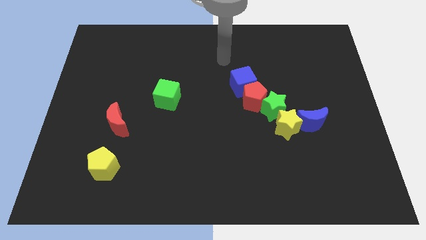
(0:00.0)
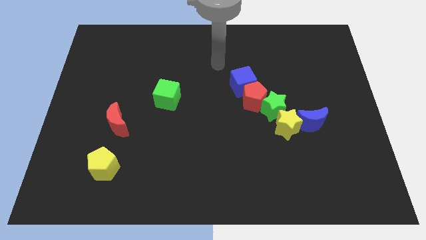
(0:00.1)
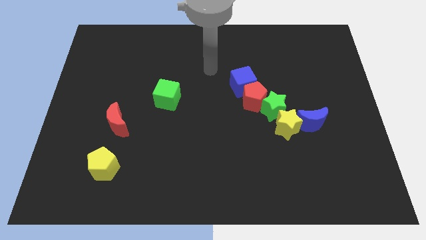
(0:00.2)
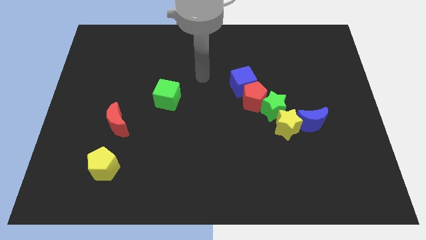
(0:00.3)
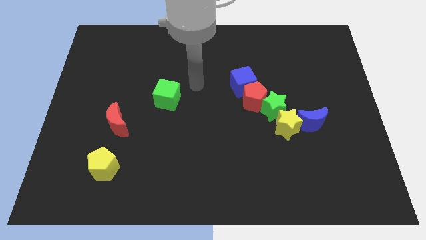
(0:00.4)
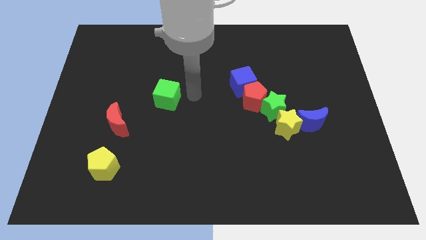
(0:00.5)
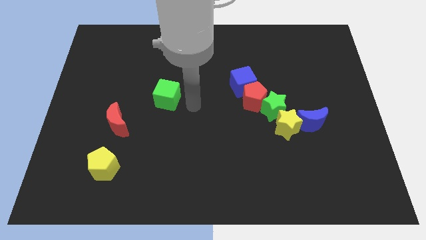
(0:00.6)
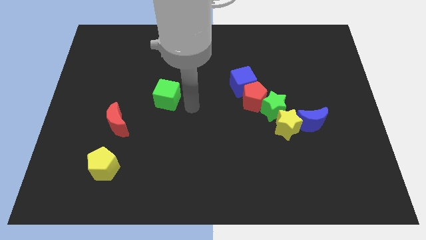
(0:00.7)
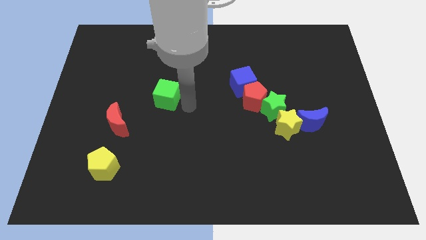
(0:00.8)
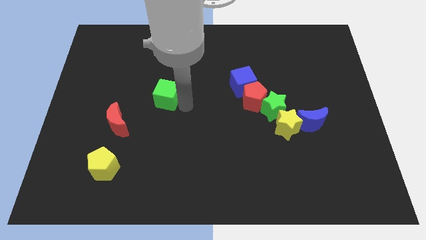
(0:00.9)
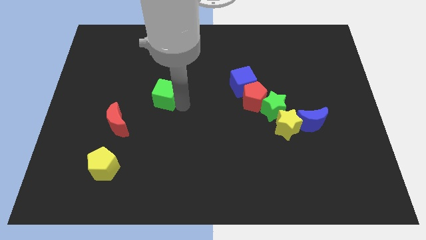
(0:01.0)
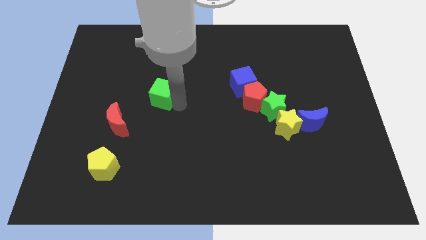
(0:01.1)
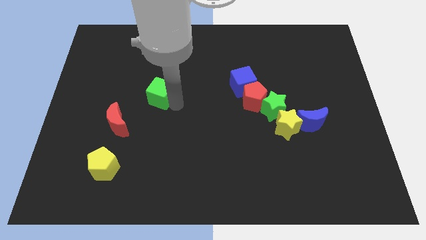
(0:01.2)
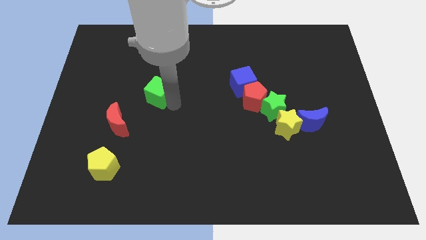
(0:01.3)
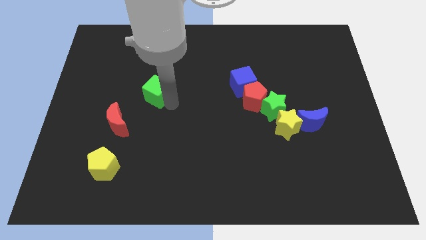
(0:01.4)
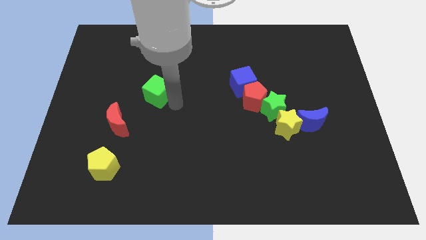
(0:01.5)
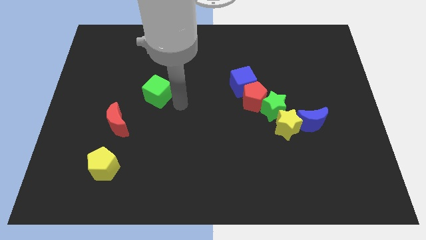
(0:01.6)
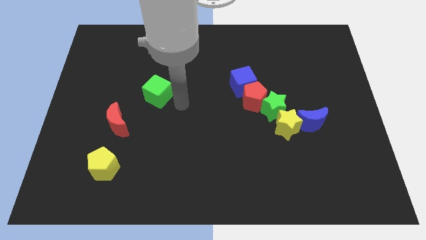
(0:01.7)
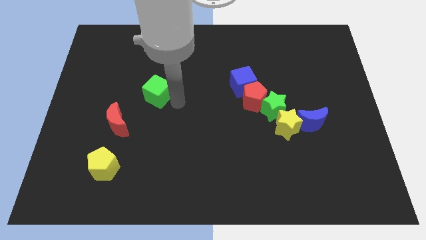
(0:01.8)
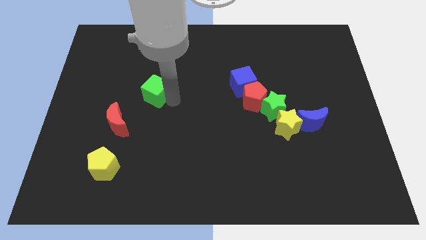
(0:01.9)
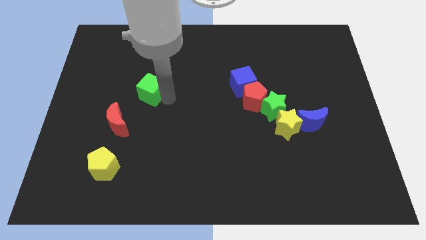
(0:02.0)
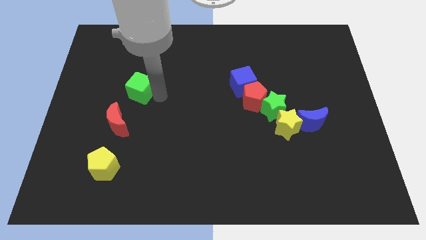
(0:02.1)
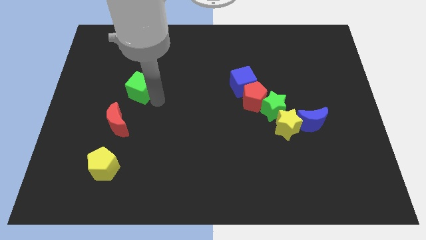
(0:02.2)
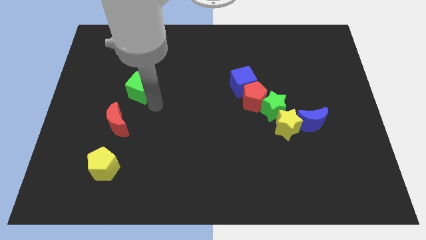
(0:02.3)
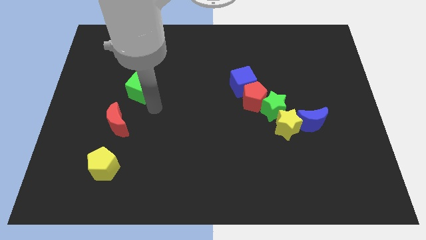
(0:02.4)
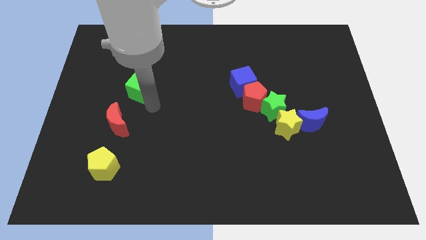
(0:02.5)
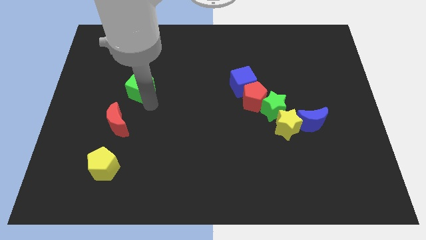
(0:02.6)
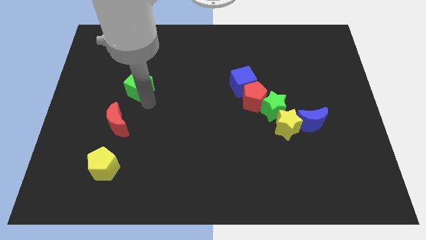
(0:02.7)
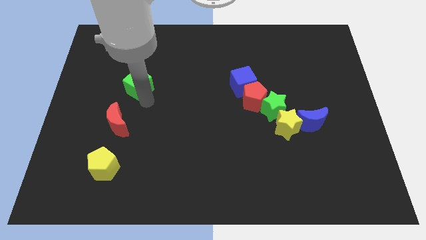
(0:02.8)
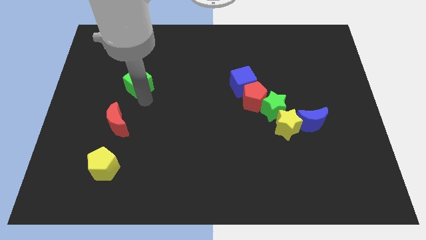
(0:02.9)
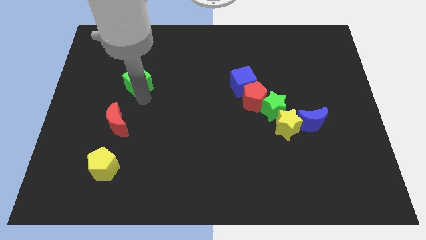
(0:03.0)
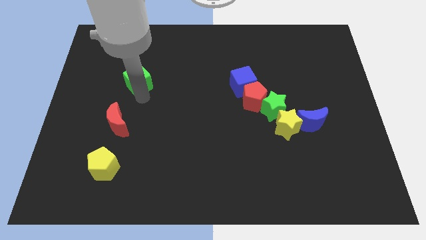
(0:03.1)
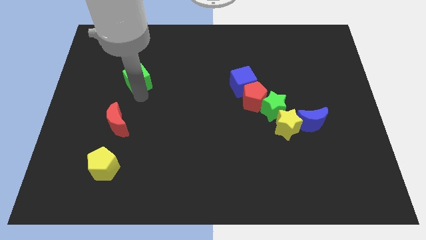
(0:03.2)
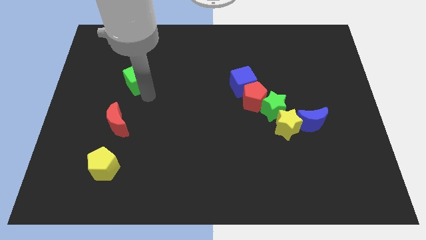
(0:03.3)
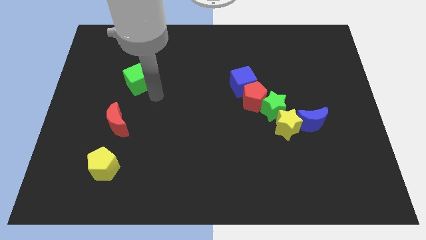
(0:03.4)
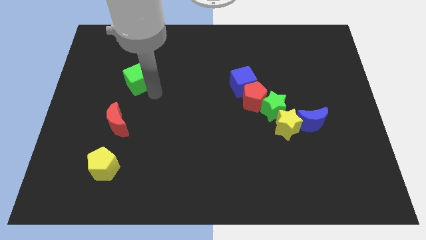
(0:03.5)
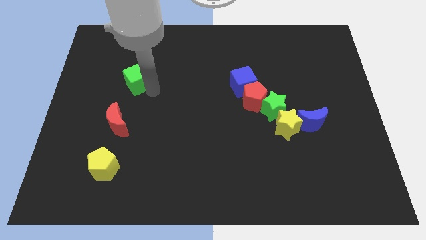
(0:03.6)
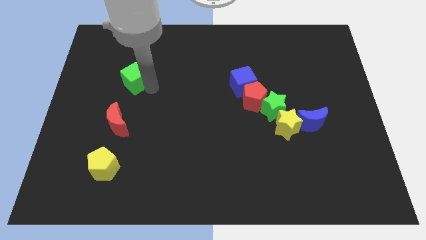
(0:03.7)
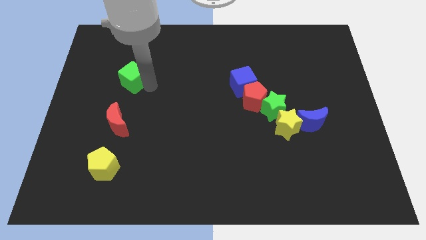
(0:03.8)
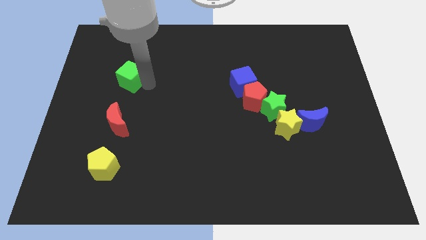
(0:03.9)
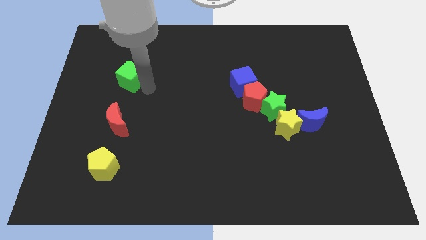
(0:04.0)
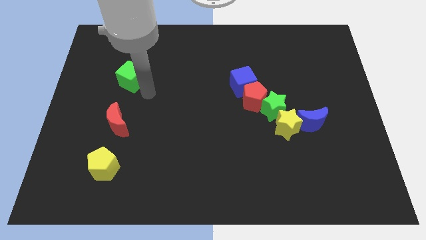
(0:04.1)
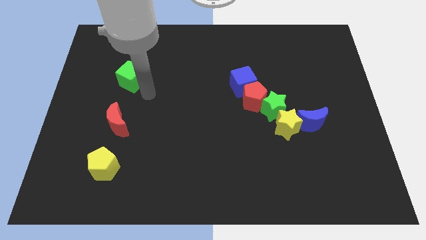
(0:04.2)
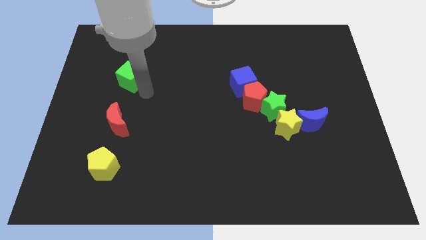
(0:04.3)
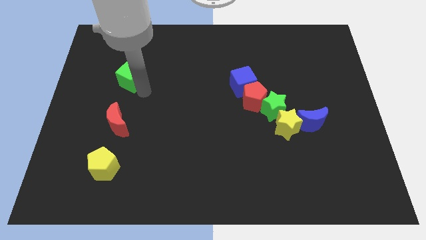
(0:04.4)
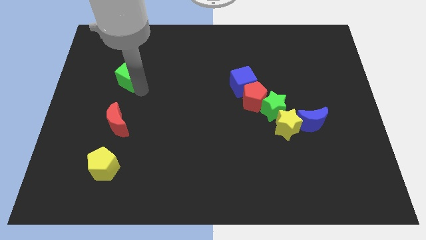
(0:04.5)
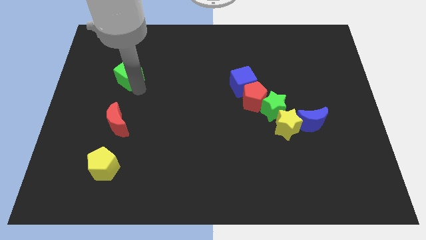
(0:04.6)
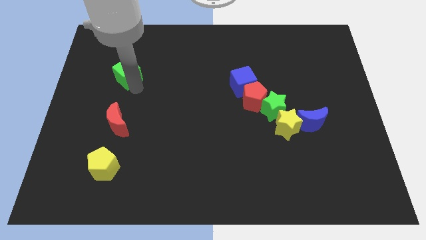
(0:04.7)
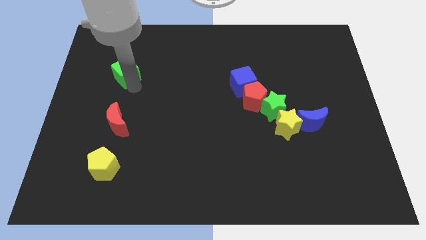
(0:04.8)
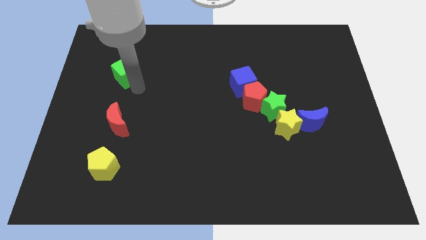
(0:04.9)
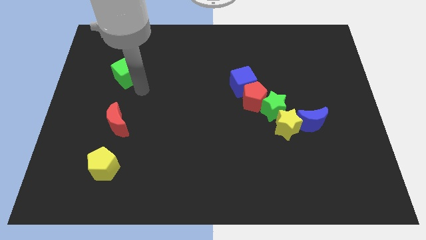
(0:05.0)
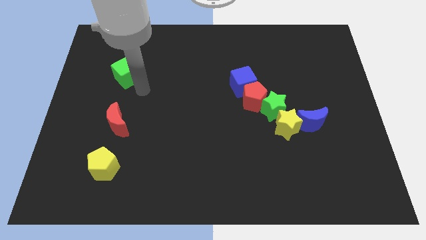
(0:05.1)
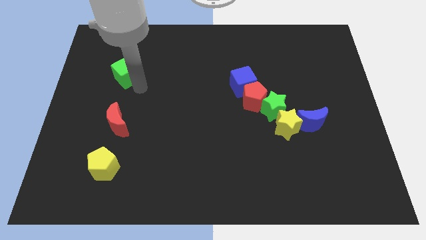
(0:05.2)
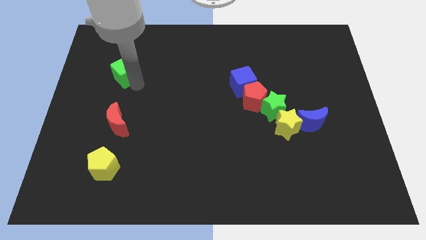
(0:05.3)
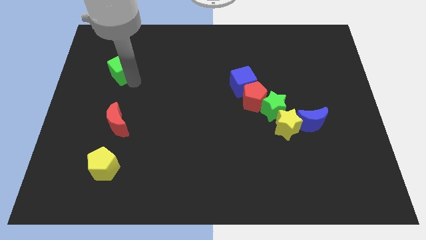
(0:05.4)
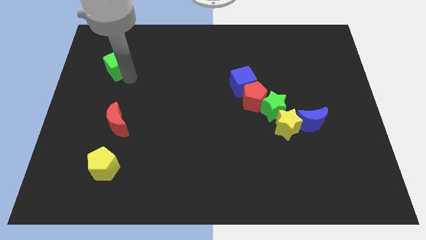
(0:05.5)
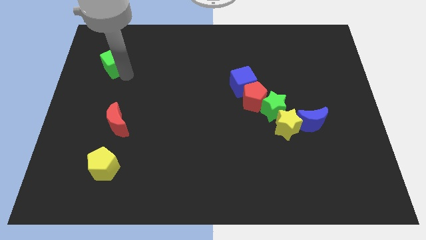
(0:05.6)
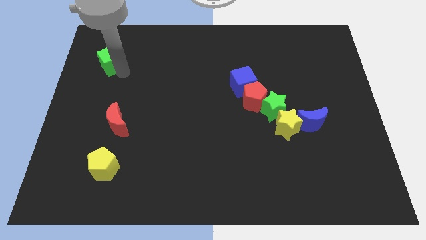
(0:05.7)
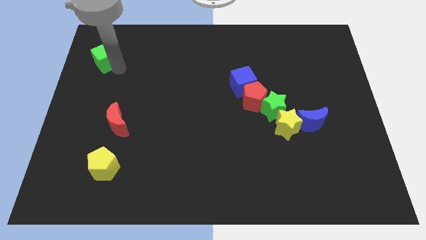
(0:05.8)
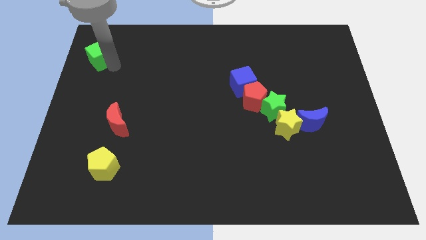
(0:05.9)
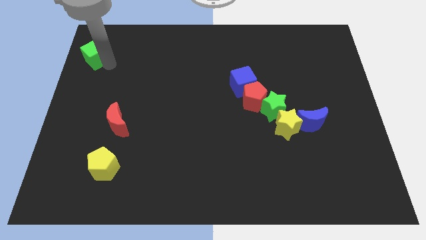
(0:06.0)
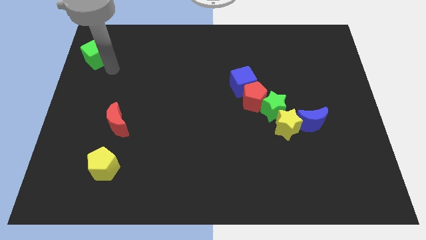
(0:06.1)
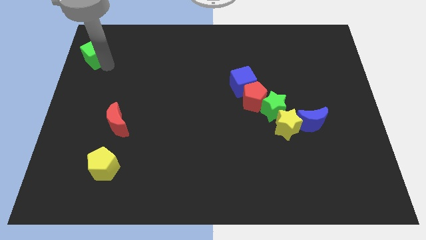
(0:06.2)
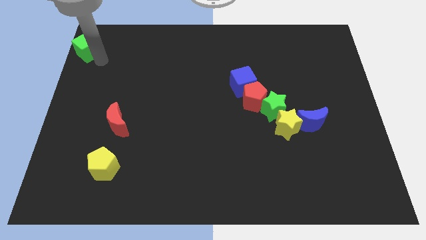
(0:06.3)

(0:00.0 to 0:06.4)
put the green cube to the top left of the board

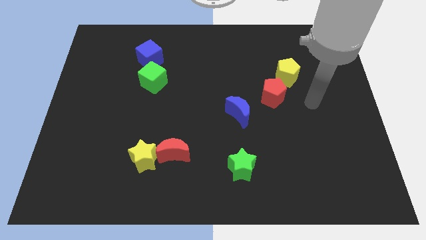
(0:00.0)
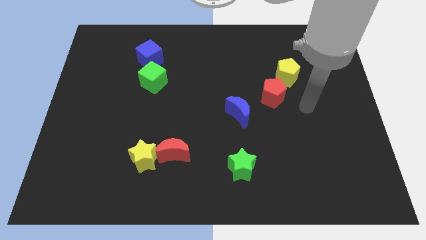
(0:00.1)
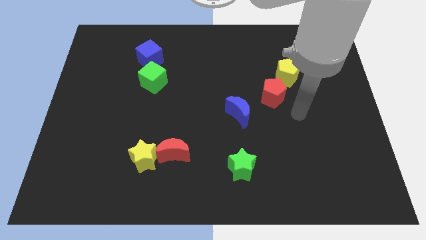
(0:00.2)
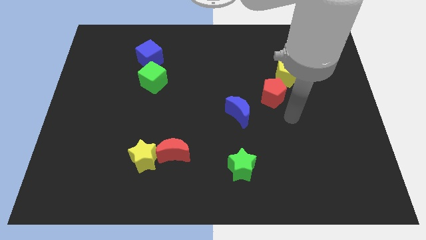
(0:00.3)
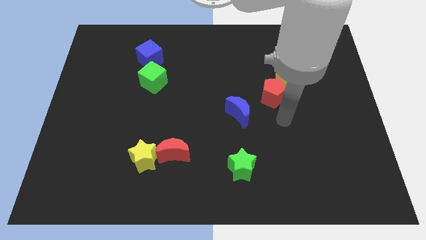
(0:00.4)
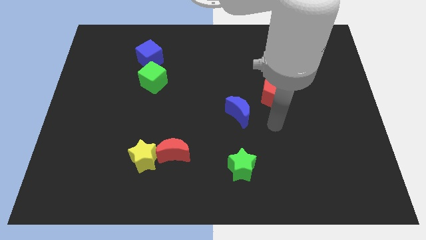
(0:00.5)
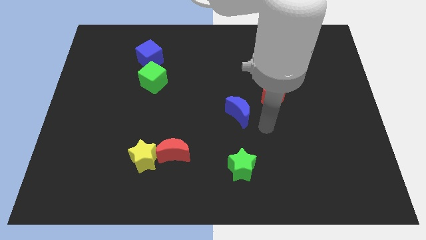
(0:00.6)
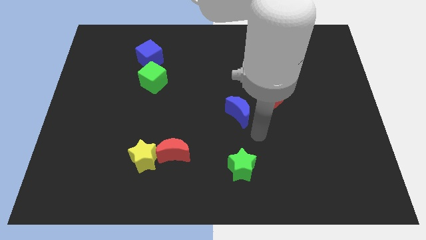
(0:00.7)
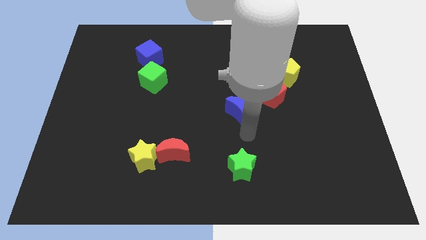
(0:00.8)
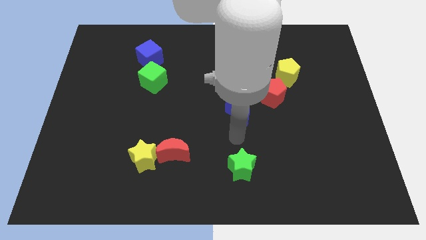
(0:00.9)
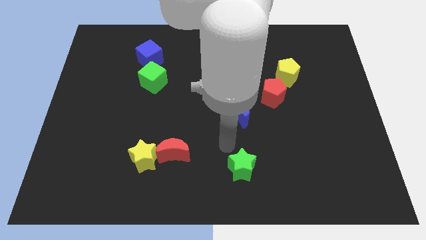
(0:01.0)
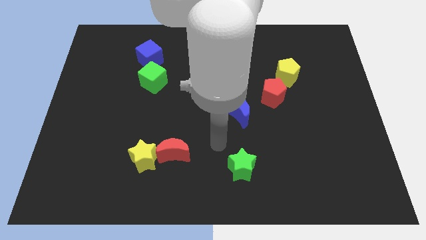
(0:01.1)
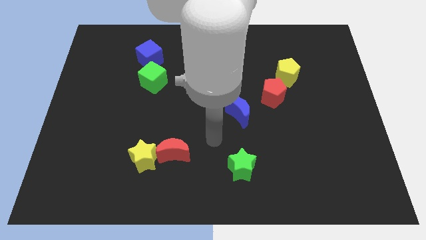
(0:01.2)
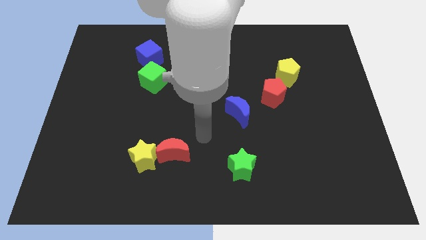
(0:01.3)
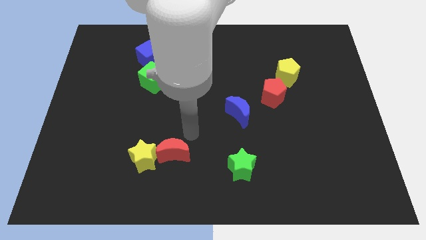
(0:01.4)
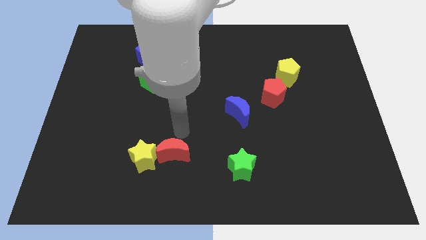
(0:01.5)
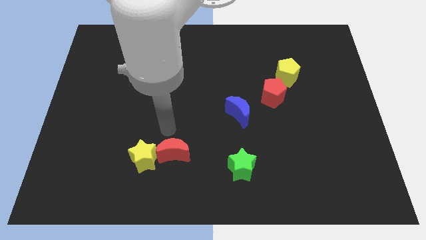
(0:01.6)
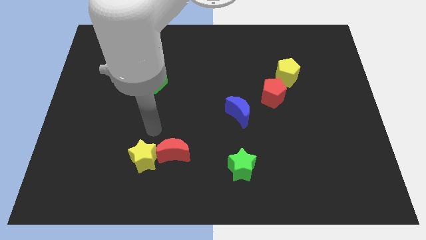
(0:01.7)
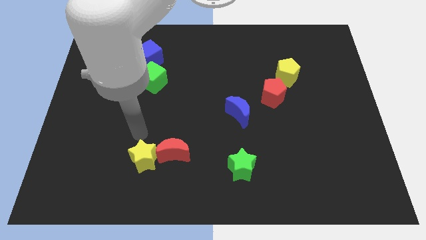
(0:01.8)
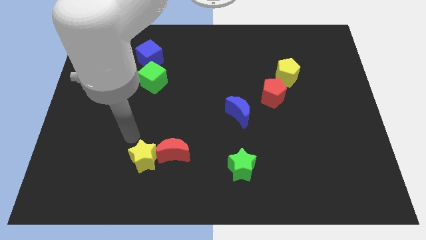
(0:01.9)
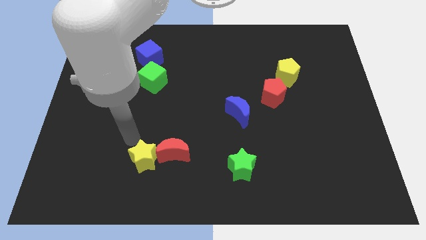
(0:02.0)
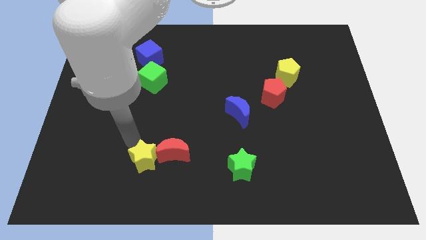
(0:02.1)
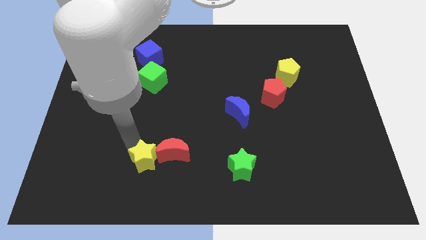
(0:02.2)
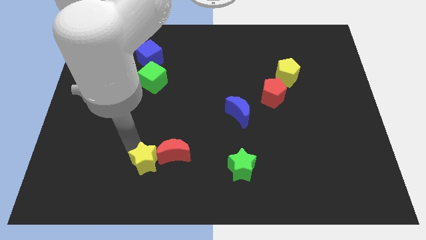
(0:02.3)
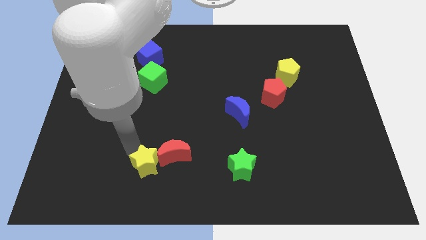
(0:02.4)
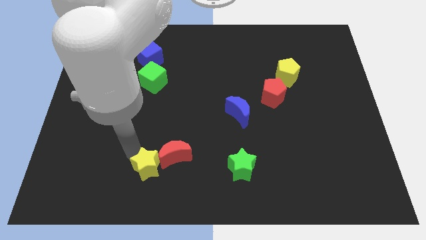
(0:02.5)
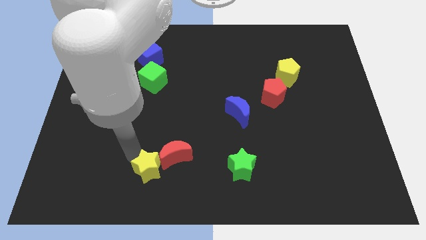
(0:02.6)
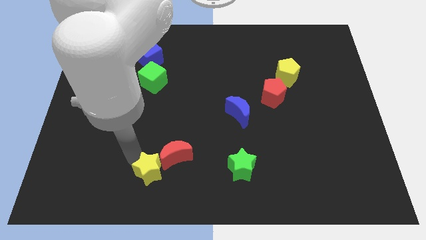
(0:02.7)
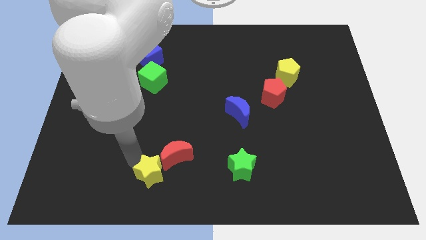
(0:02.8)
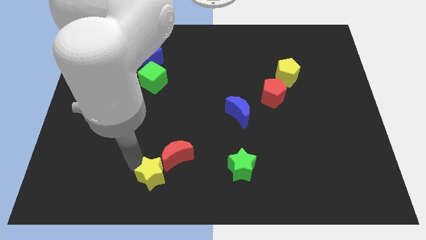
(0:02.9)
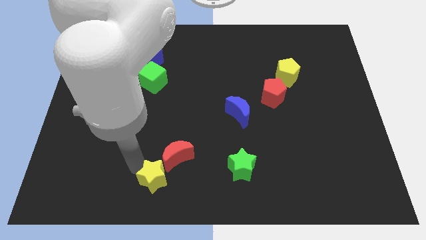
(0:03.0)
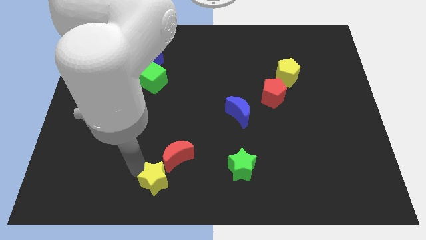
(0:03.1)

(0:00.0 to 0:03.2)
slide the yellow star to the bottom side
